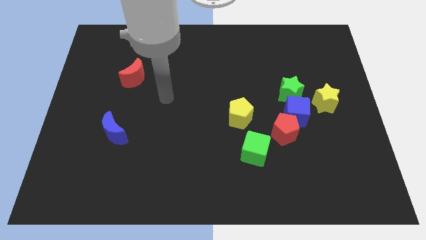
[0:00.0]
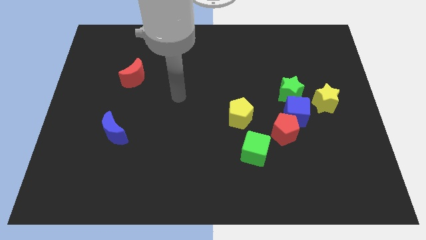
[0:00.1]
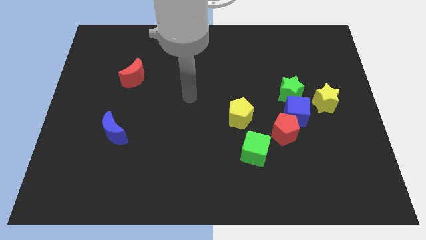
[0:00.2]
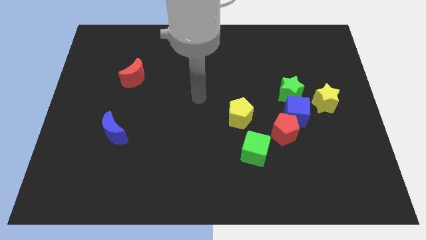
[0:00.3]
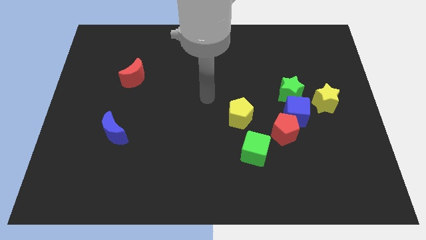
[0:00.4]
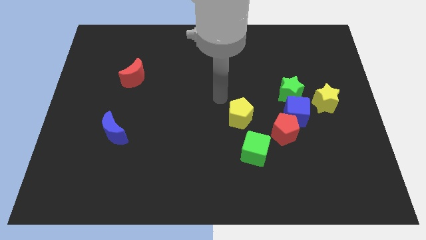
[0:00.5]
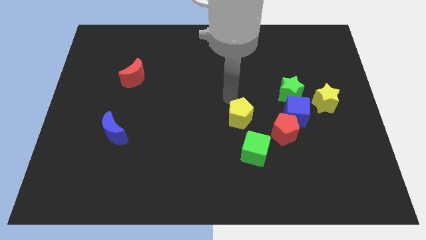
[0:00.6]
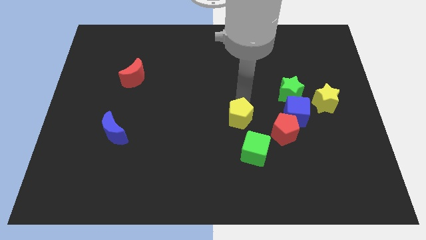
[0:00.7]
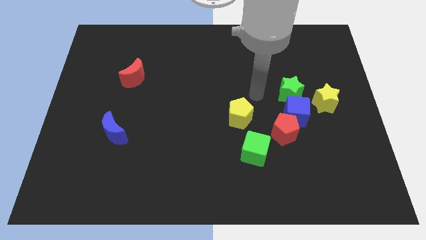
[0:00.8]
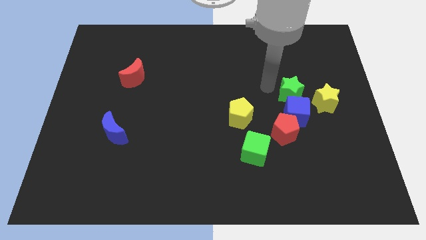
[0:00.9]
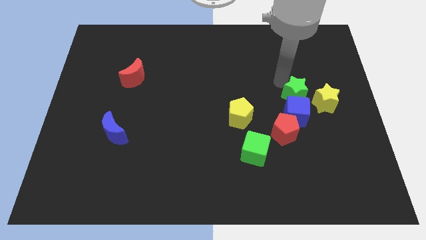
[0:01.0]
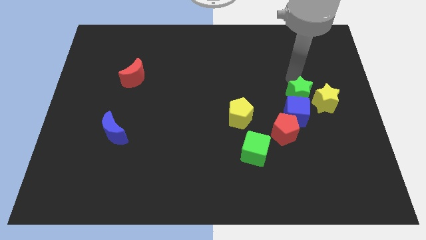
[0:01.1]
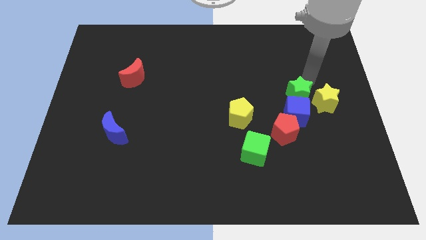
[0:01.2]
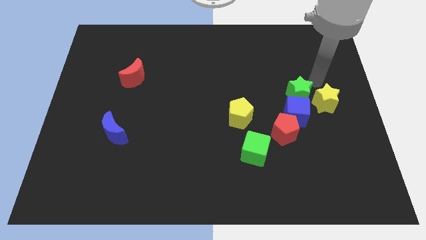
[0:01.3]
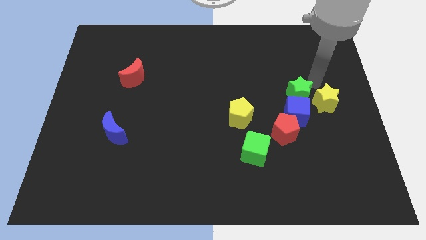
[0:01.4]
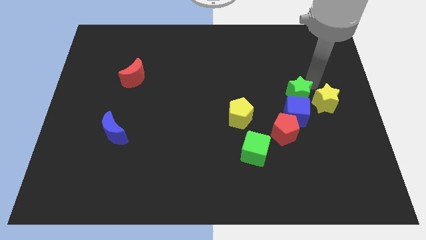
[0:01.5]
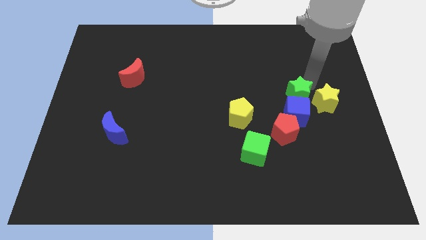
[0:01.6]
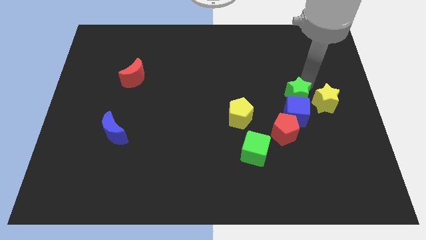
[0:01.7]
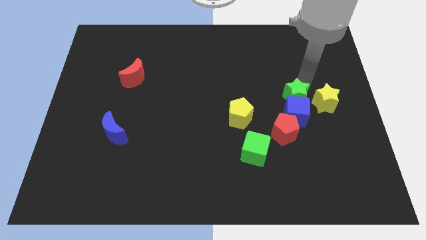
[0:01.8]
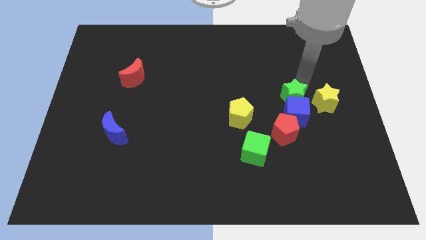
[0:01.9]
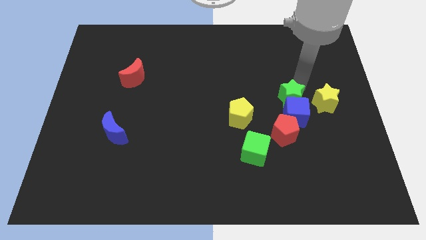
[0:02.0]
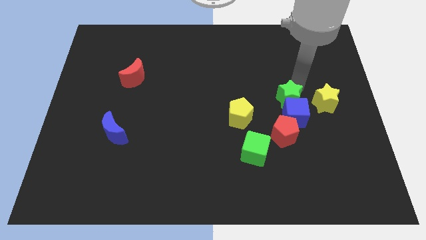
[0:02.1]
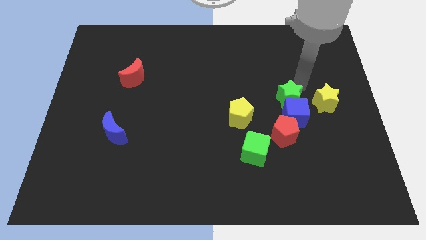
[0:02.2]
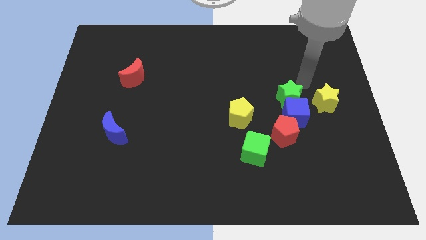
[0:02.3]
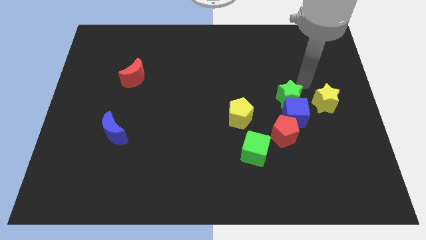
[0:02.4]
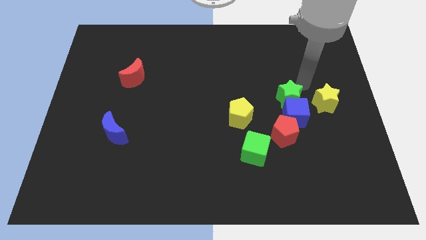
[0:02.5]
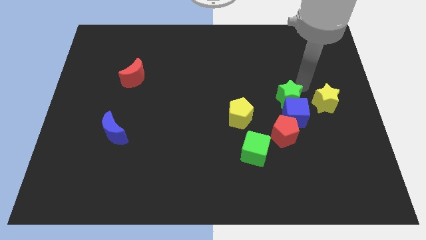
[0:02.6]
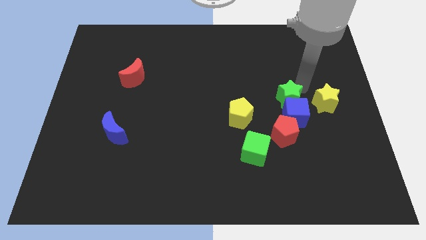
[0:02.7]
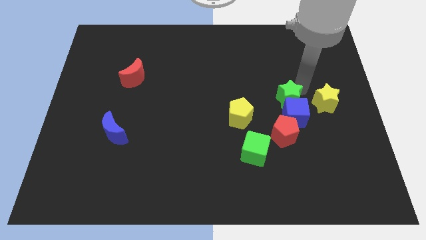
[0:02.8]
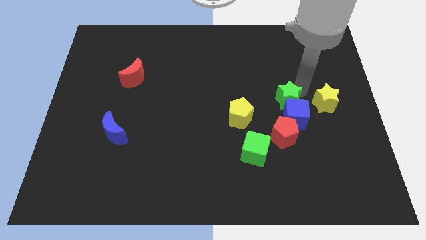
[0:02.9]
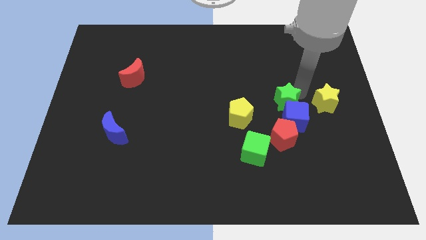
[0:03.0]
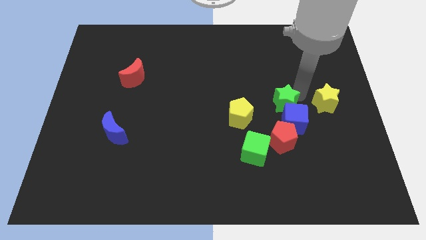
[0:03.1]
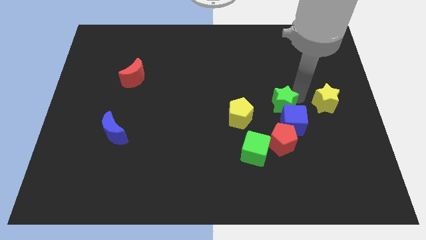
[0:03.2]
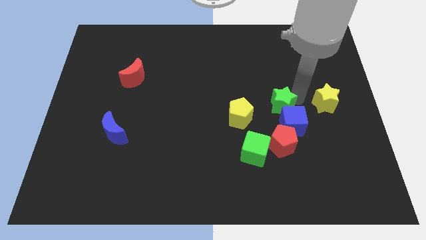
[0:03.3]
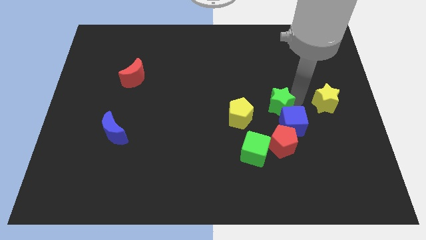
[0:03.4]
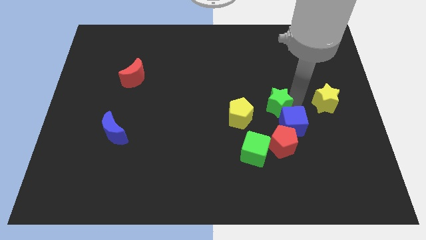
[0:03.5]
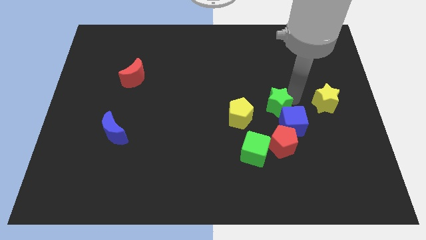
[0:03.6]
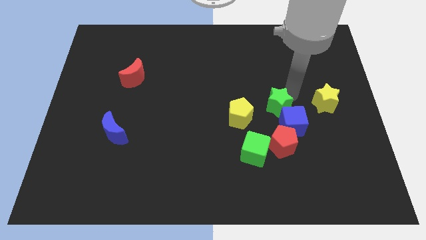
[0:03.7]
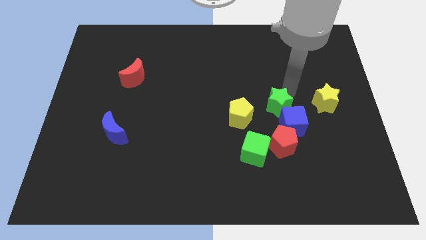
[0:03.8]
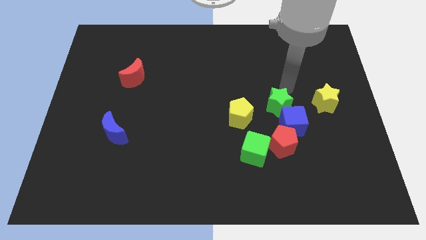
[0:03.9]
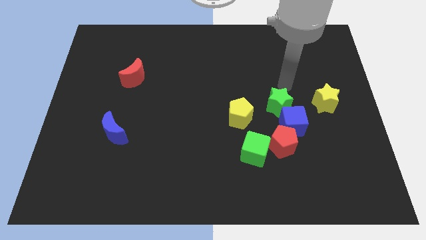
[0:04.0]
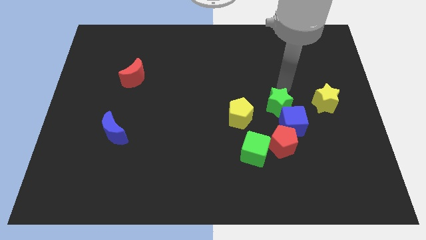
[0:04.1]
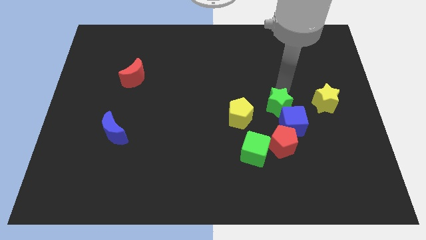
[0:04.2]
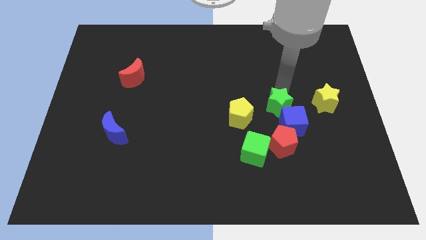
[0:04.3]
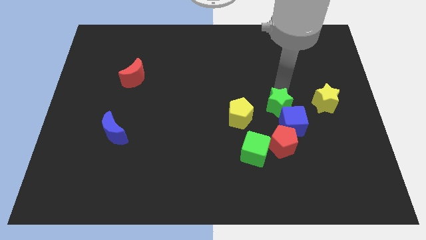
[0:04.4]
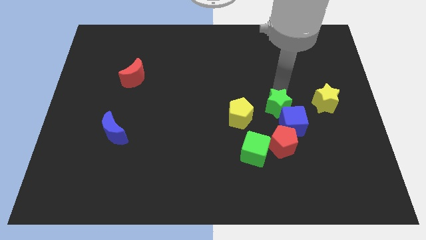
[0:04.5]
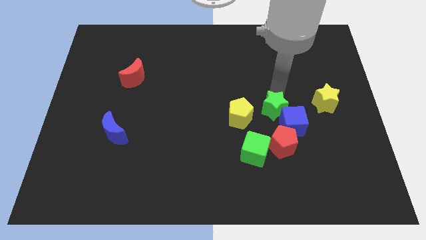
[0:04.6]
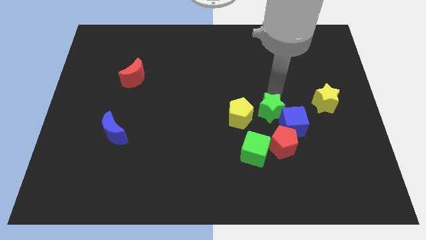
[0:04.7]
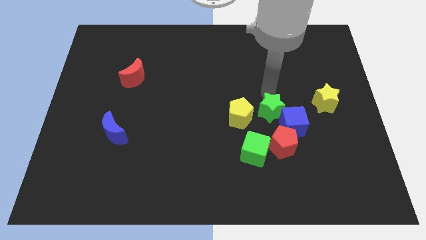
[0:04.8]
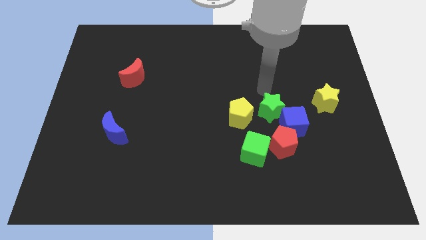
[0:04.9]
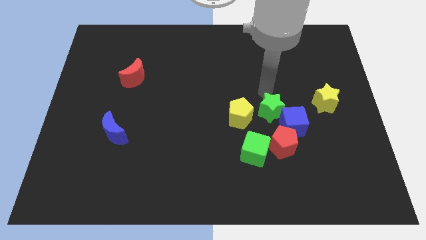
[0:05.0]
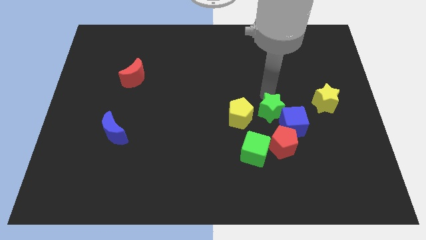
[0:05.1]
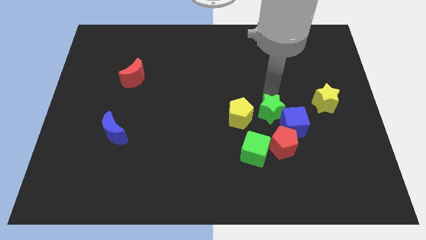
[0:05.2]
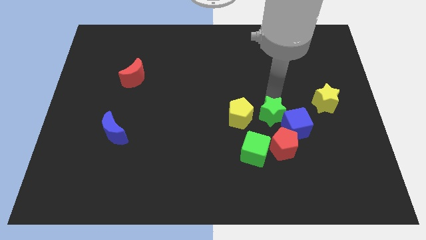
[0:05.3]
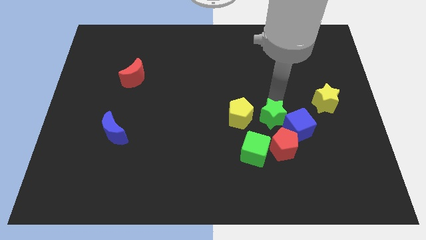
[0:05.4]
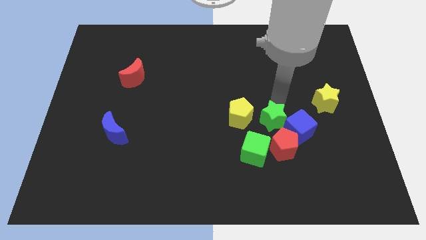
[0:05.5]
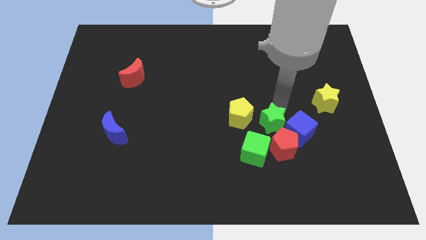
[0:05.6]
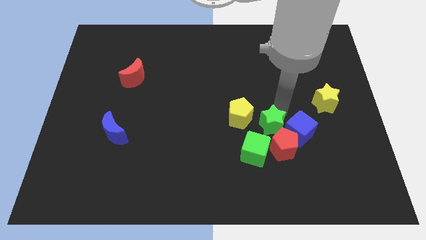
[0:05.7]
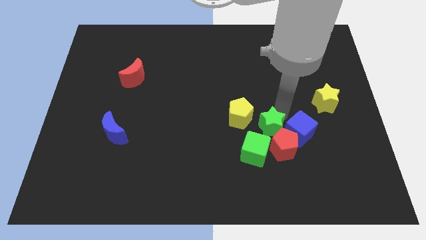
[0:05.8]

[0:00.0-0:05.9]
put the green star next to the red pentagon
